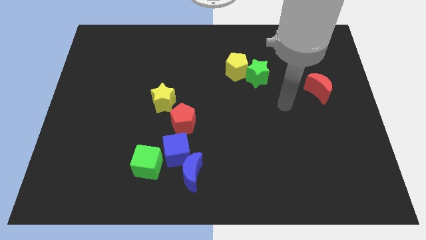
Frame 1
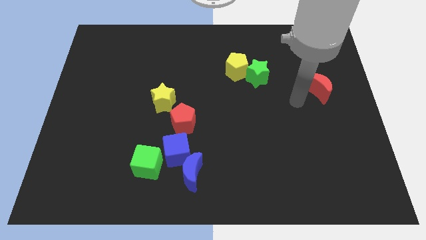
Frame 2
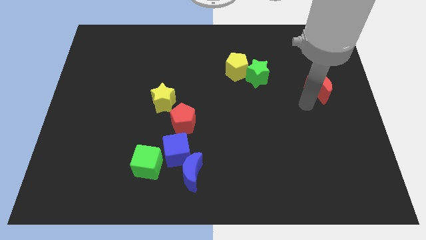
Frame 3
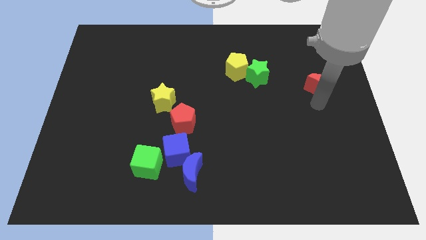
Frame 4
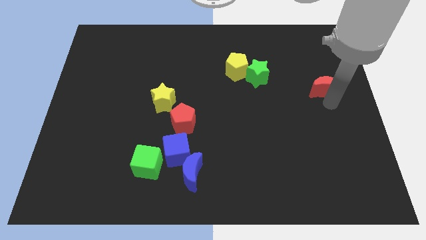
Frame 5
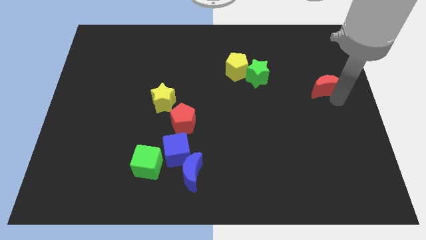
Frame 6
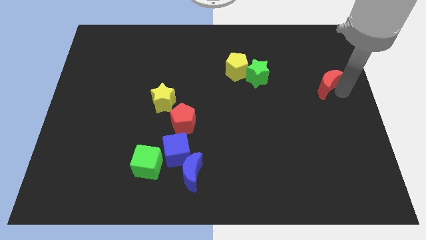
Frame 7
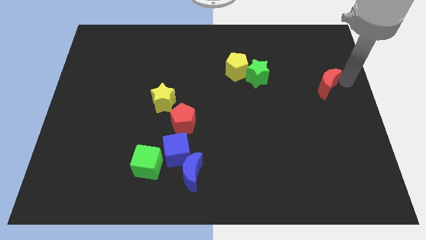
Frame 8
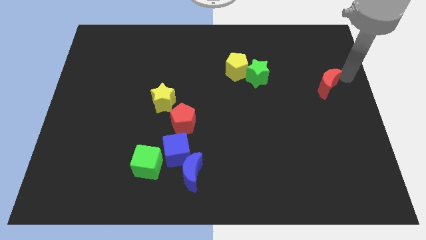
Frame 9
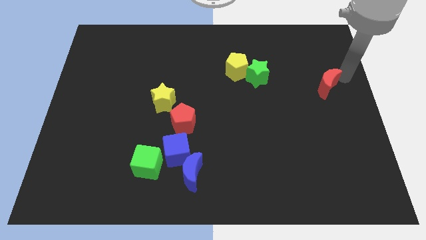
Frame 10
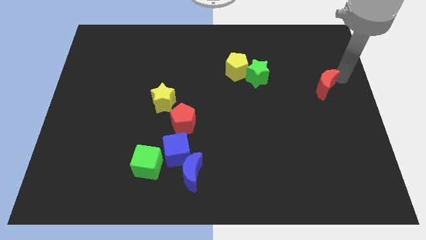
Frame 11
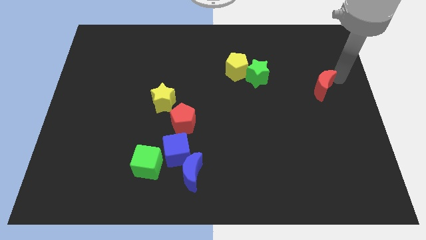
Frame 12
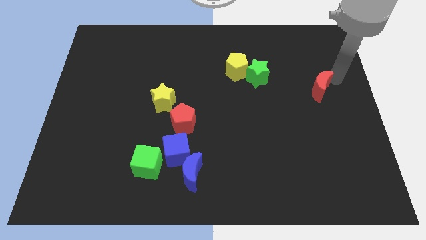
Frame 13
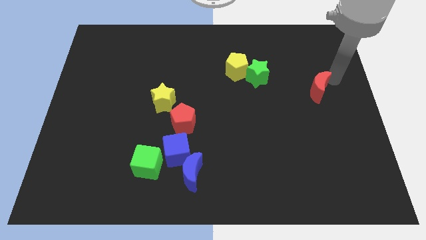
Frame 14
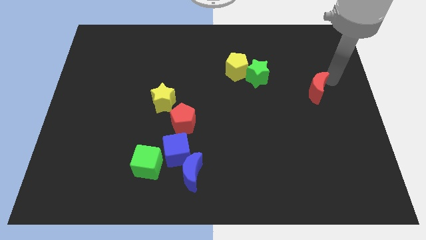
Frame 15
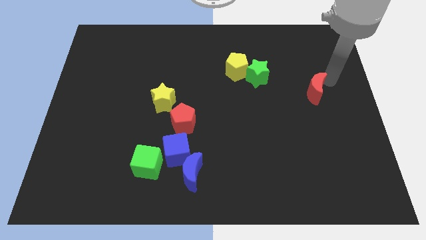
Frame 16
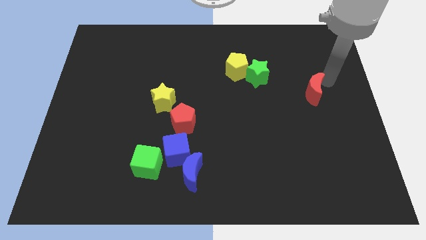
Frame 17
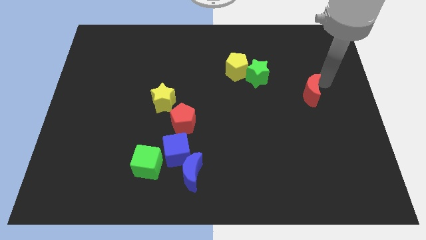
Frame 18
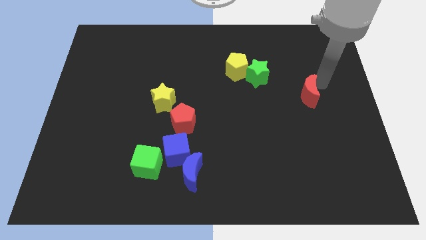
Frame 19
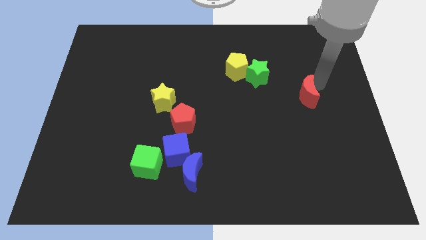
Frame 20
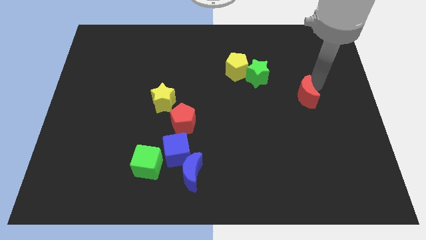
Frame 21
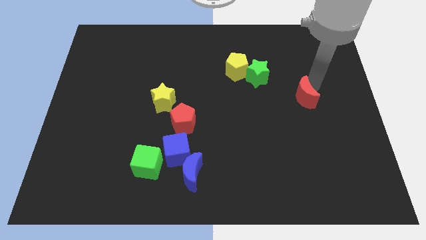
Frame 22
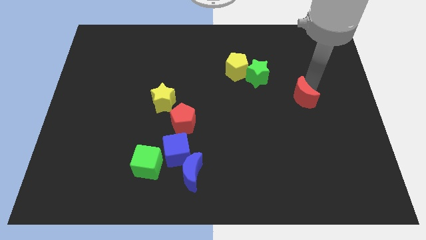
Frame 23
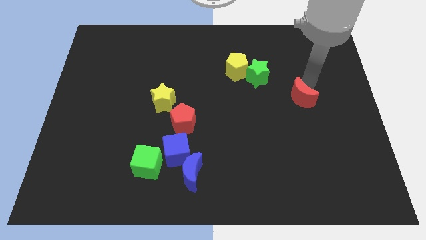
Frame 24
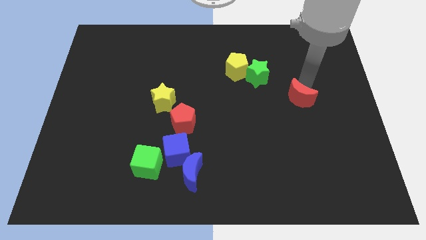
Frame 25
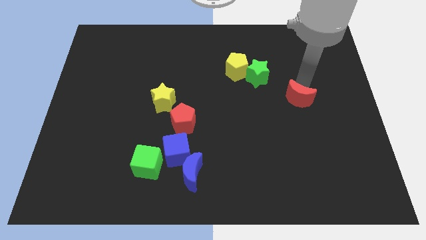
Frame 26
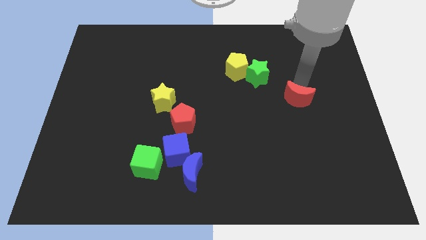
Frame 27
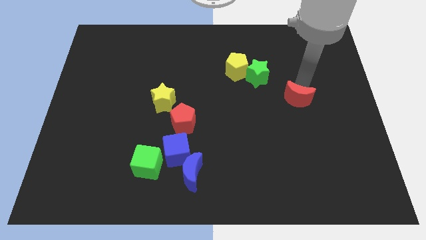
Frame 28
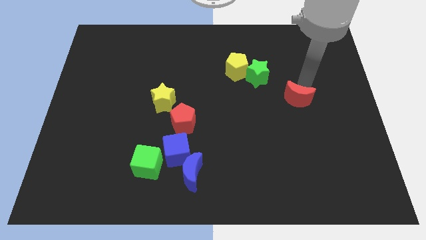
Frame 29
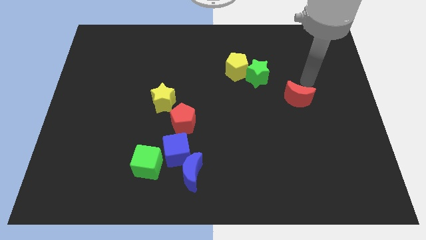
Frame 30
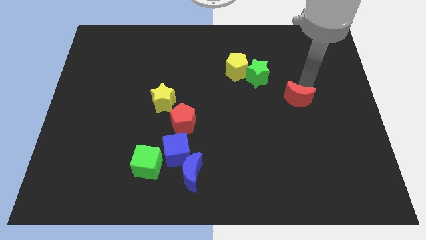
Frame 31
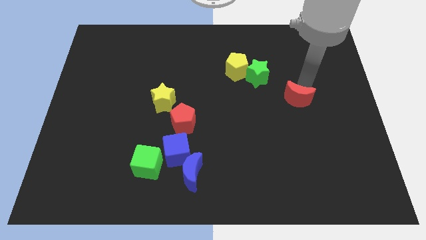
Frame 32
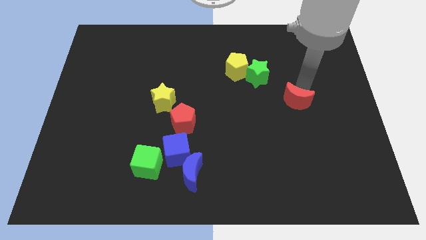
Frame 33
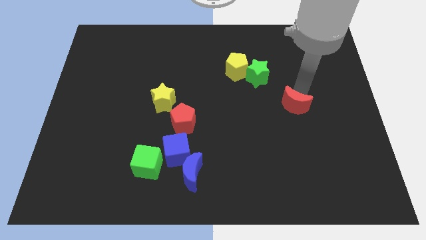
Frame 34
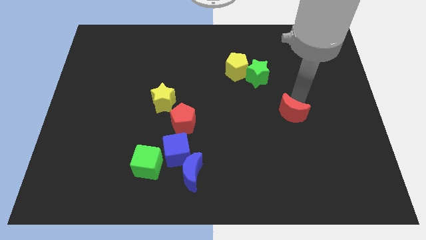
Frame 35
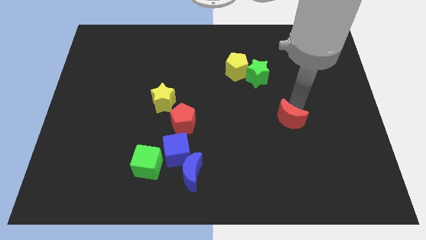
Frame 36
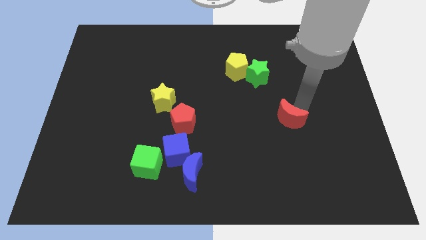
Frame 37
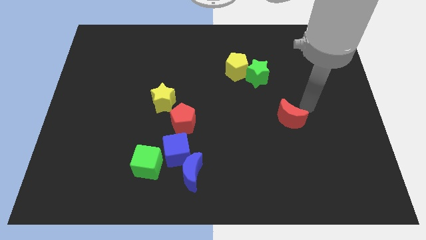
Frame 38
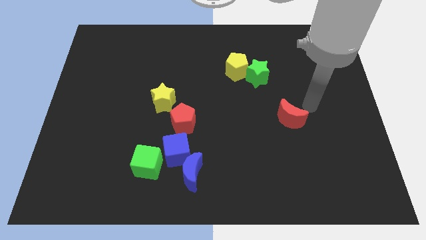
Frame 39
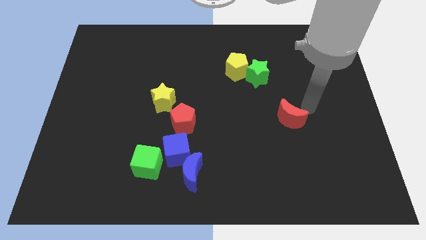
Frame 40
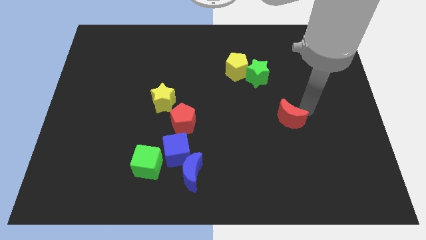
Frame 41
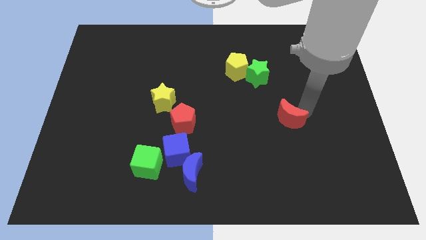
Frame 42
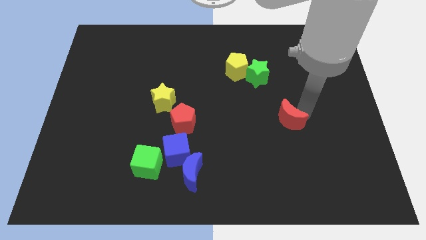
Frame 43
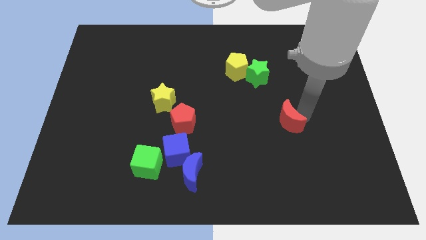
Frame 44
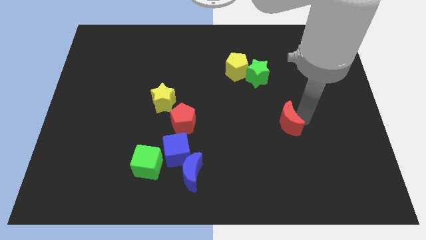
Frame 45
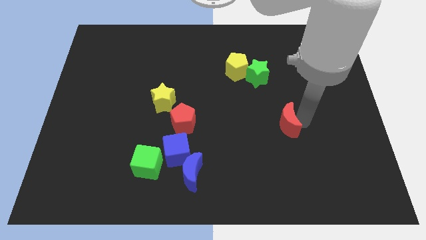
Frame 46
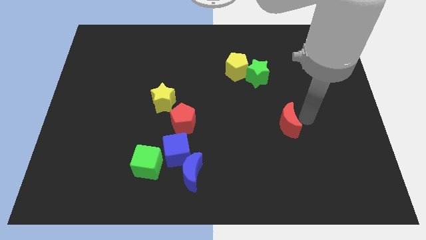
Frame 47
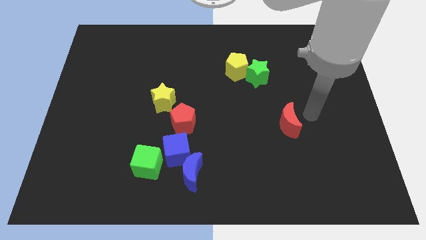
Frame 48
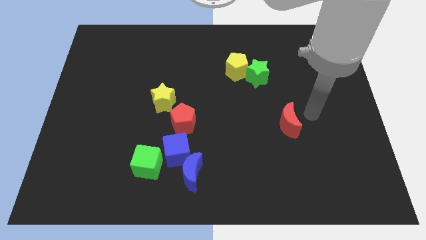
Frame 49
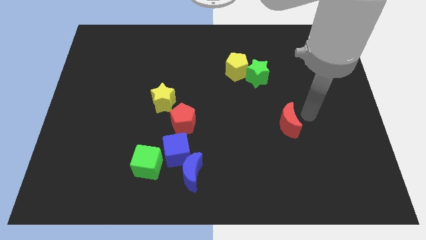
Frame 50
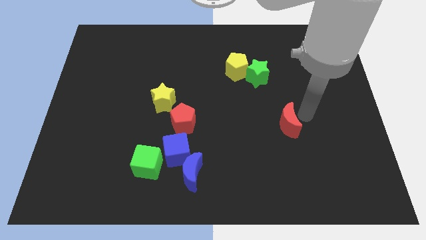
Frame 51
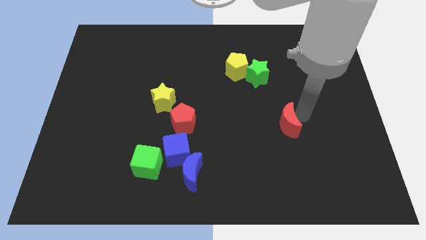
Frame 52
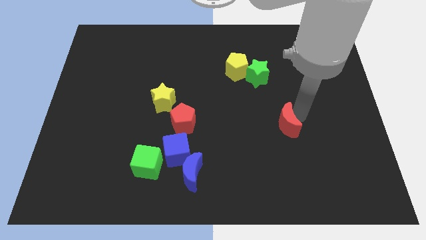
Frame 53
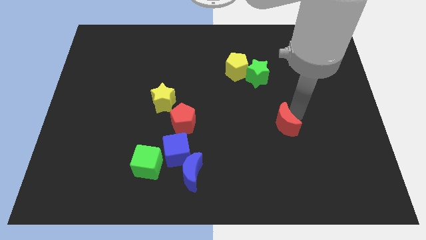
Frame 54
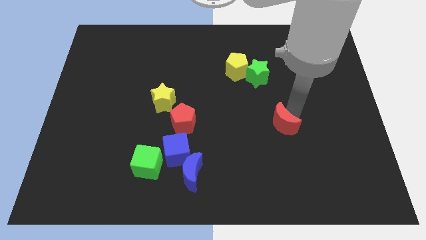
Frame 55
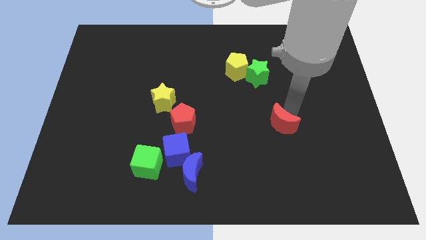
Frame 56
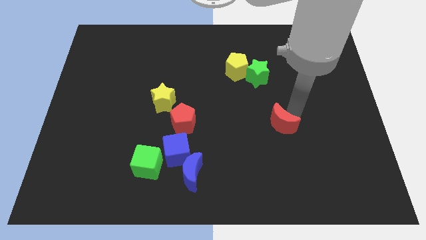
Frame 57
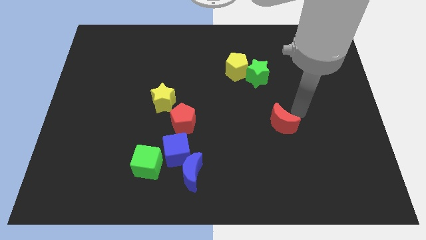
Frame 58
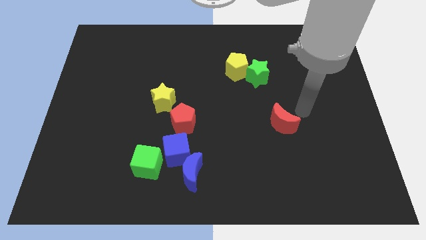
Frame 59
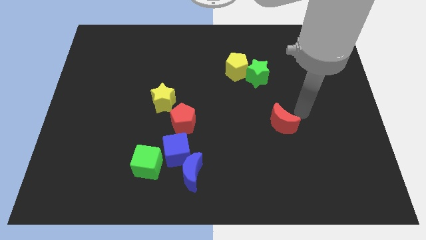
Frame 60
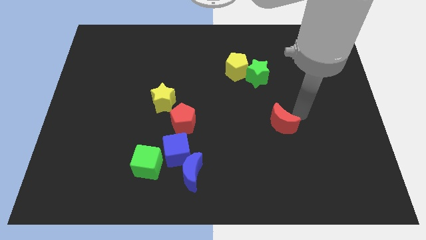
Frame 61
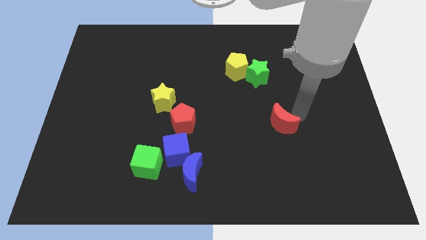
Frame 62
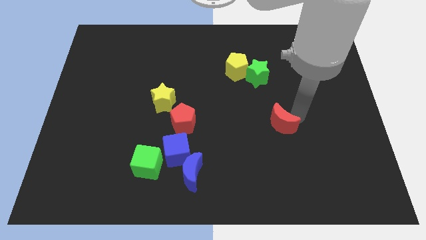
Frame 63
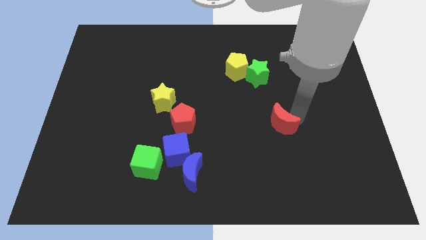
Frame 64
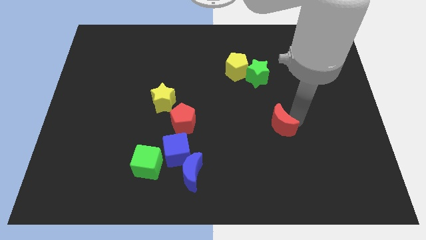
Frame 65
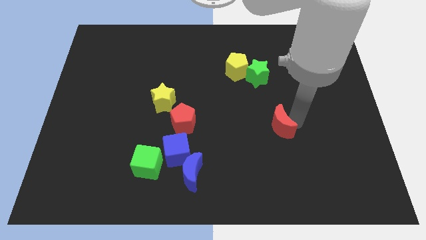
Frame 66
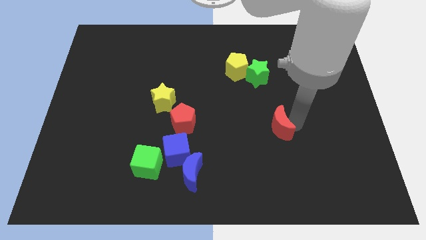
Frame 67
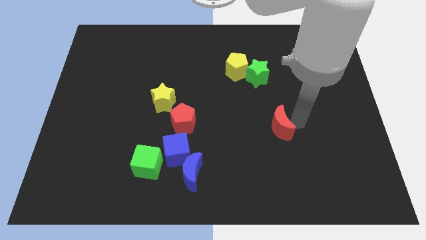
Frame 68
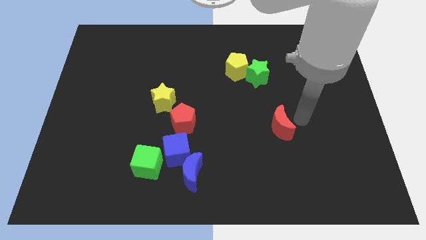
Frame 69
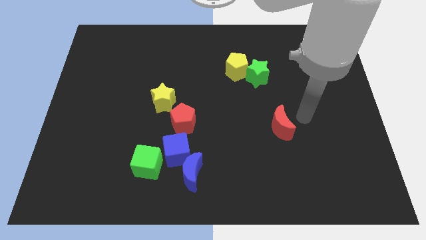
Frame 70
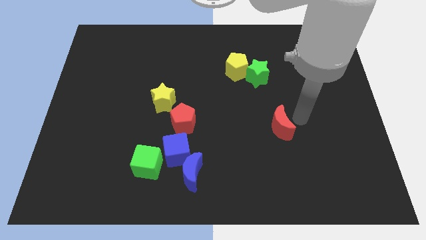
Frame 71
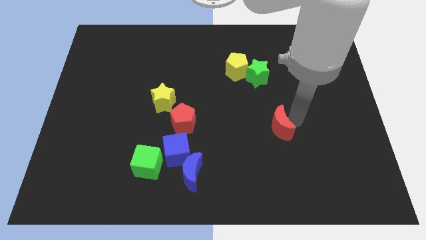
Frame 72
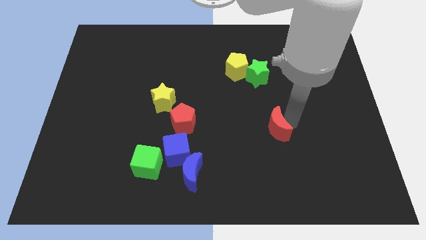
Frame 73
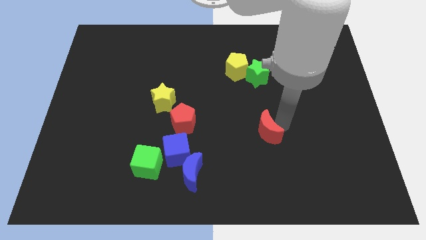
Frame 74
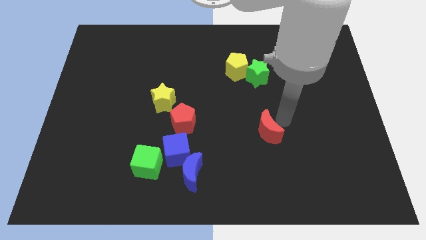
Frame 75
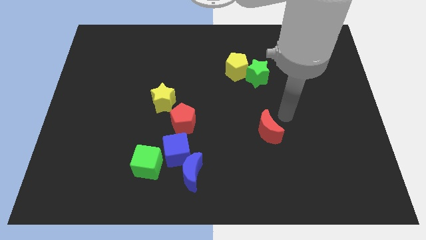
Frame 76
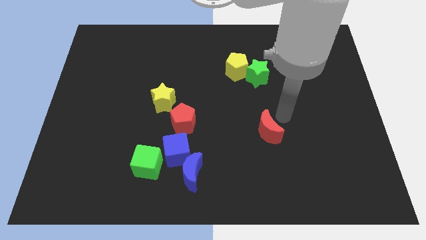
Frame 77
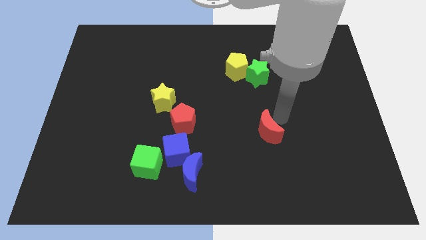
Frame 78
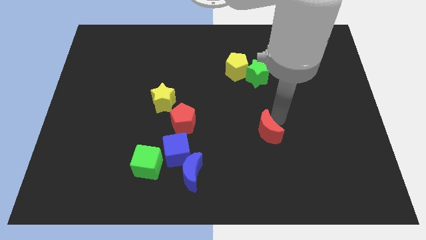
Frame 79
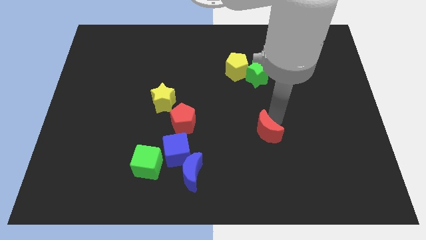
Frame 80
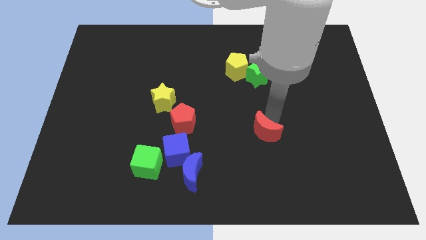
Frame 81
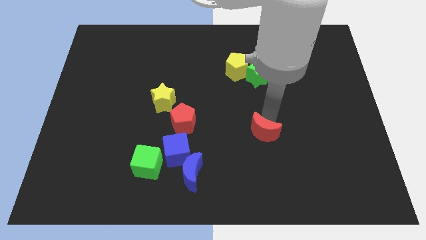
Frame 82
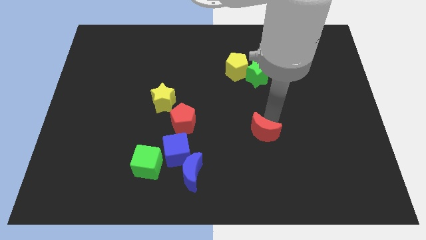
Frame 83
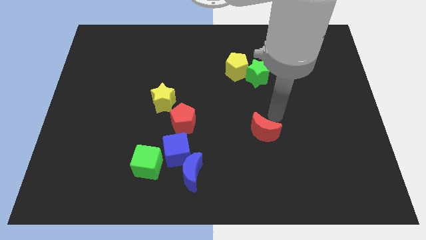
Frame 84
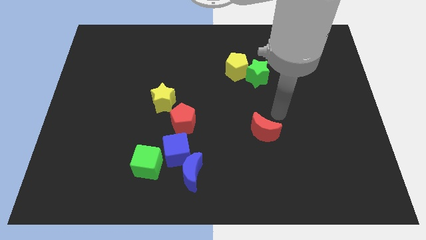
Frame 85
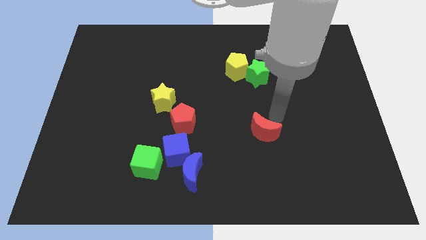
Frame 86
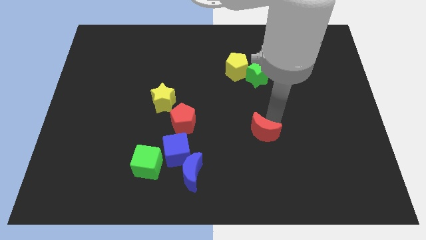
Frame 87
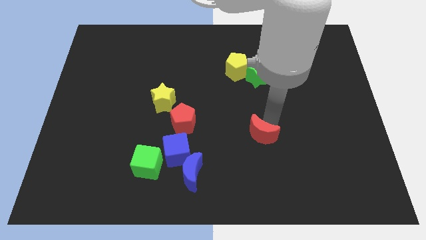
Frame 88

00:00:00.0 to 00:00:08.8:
move the red moon downwards and left diagonally
